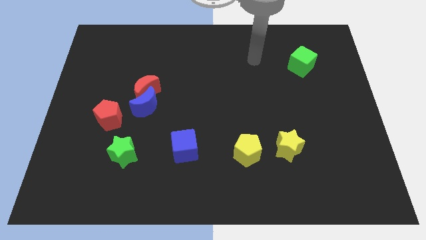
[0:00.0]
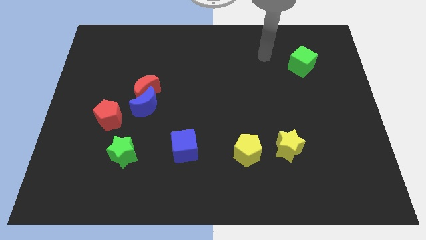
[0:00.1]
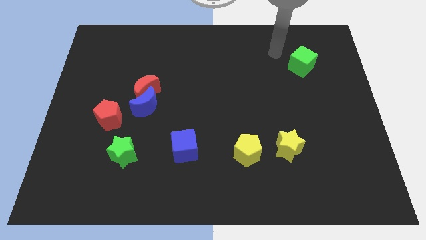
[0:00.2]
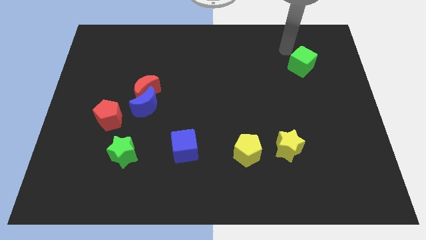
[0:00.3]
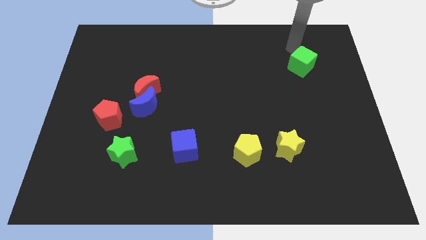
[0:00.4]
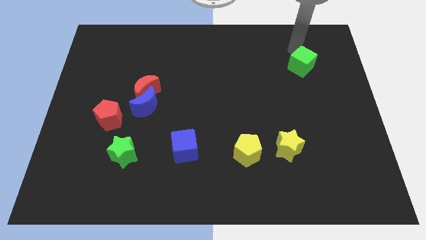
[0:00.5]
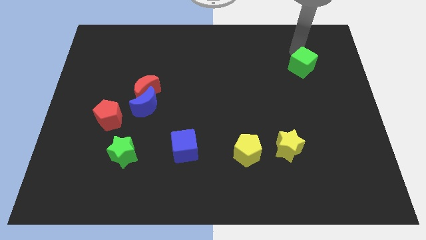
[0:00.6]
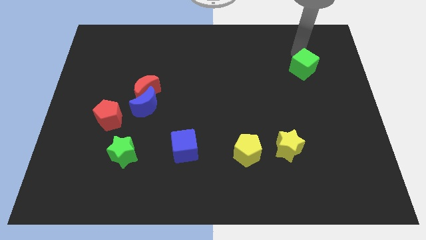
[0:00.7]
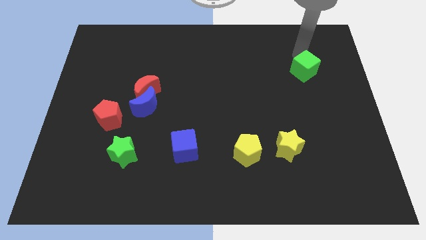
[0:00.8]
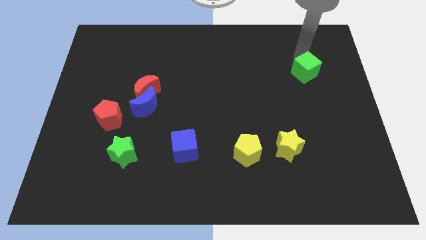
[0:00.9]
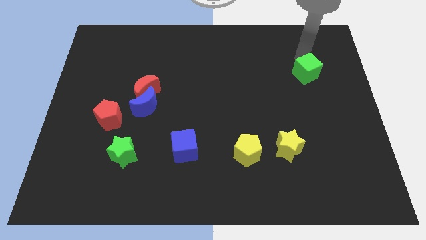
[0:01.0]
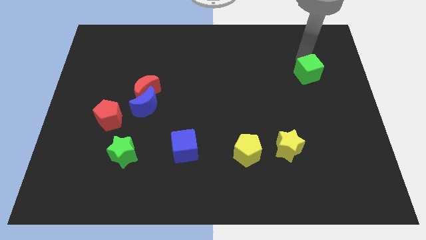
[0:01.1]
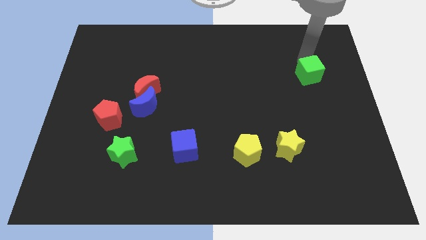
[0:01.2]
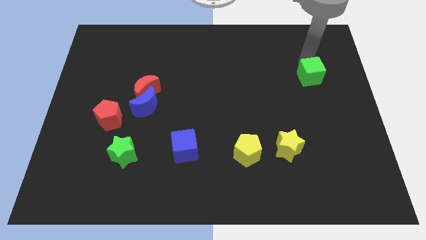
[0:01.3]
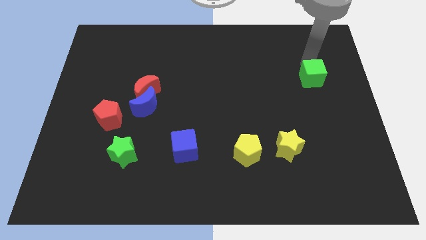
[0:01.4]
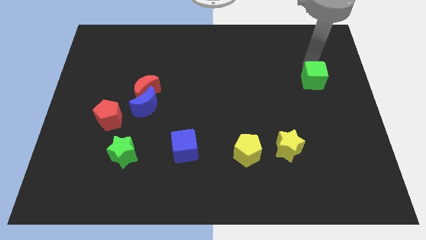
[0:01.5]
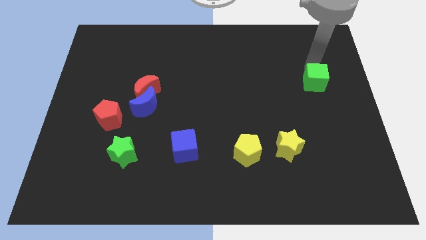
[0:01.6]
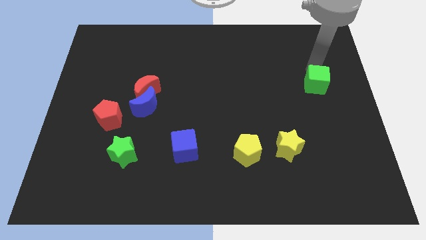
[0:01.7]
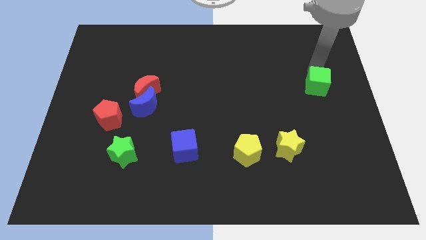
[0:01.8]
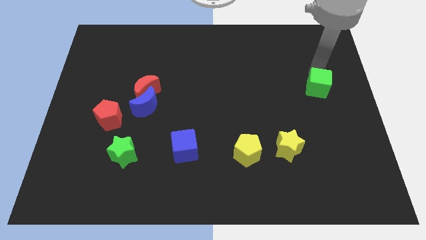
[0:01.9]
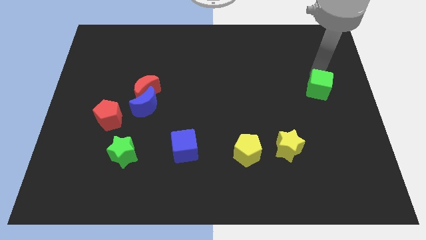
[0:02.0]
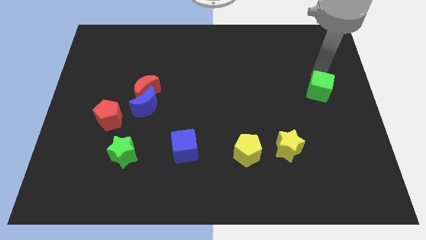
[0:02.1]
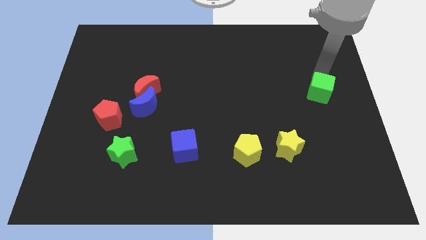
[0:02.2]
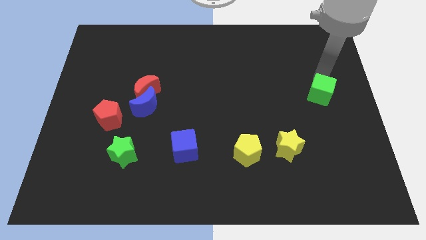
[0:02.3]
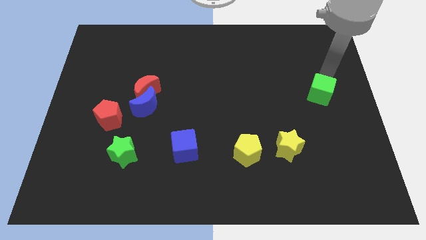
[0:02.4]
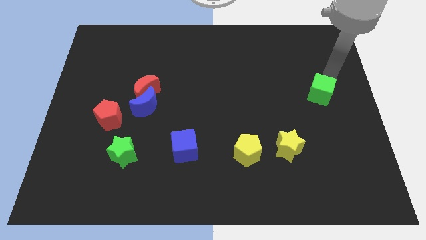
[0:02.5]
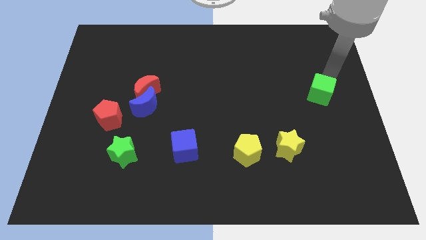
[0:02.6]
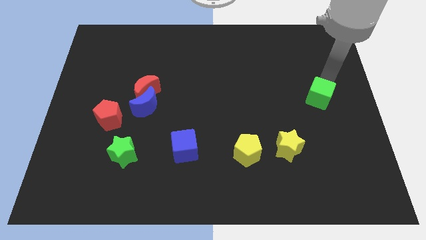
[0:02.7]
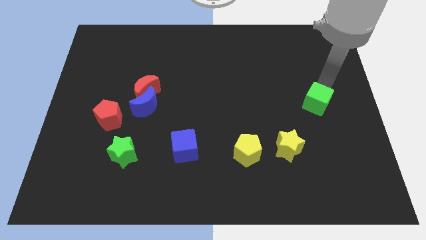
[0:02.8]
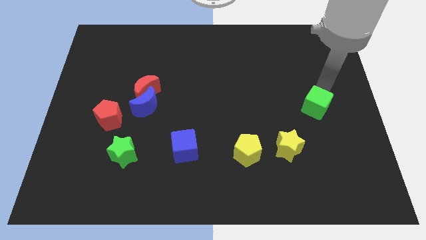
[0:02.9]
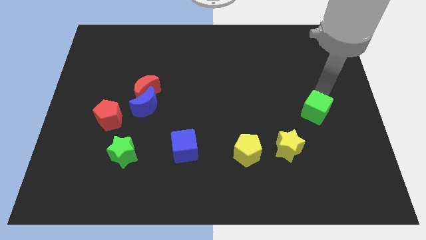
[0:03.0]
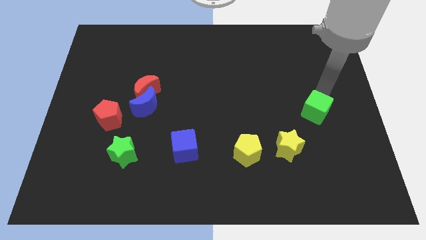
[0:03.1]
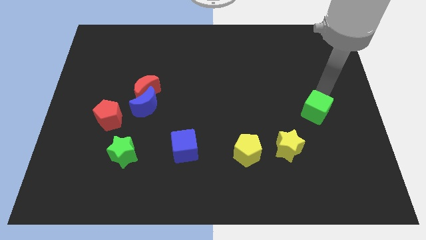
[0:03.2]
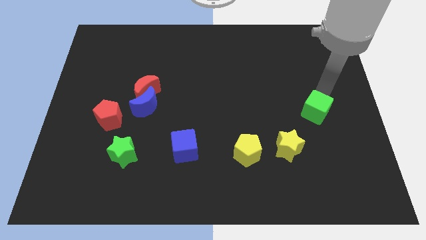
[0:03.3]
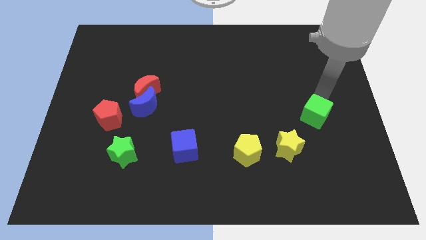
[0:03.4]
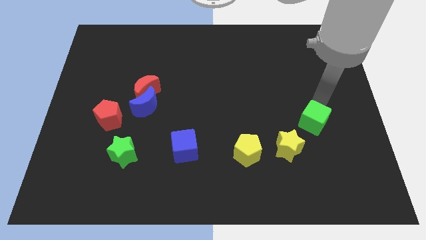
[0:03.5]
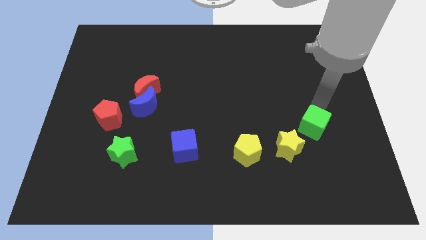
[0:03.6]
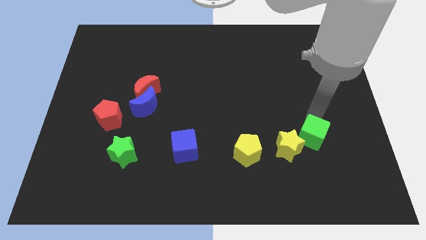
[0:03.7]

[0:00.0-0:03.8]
push the green cube downwards

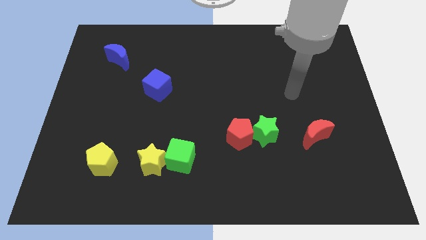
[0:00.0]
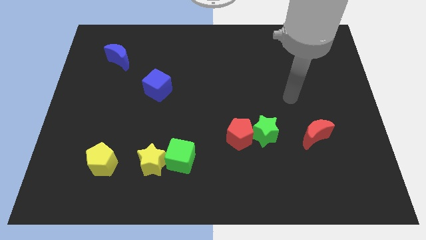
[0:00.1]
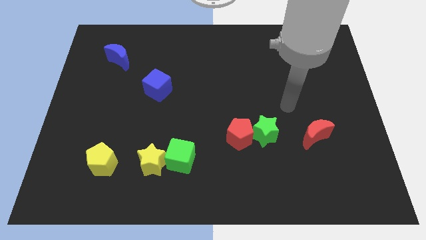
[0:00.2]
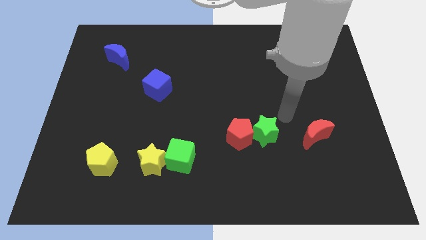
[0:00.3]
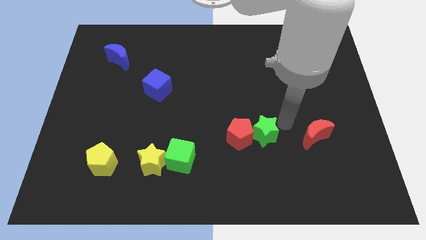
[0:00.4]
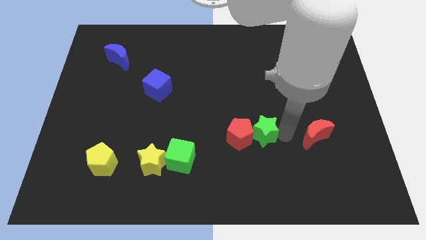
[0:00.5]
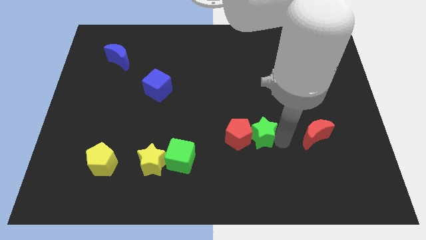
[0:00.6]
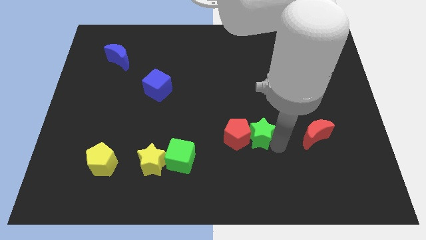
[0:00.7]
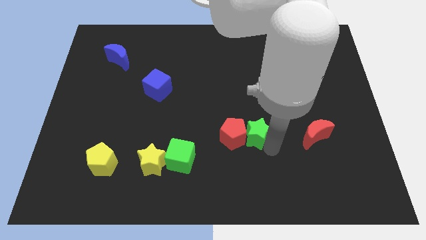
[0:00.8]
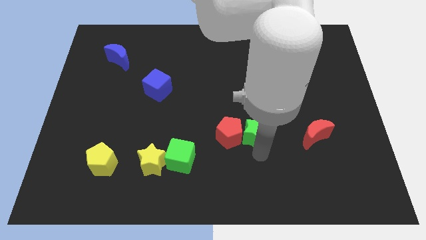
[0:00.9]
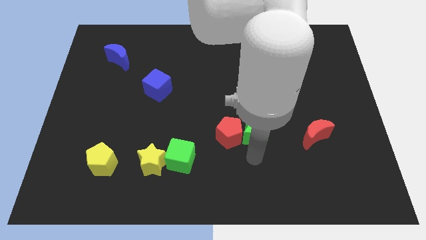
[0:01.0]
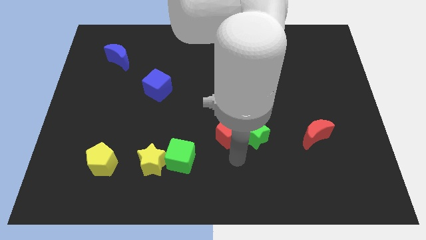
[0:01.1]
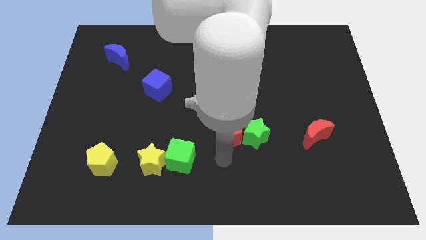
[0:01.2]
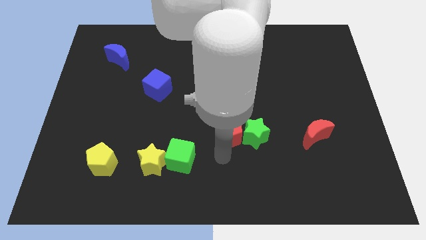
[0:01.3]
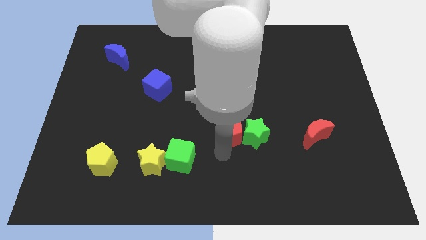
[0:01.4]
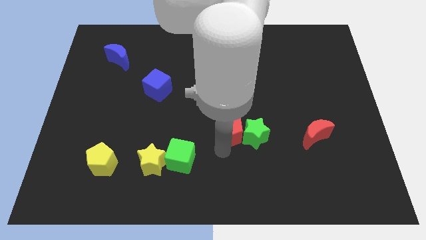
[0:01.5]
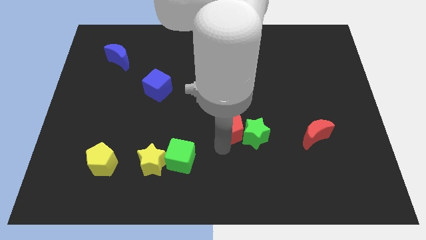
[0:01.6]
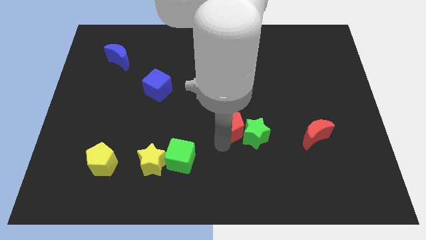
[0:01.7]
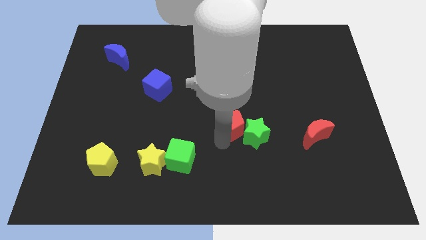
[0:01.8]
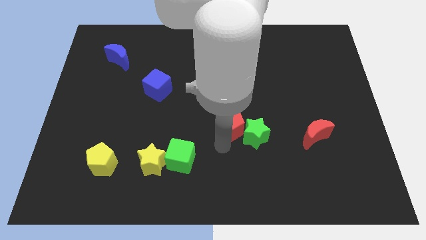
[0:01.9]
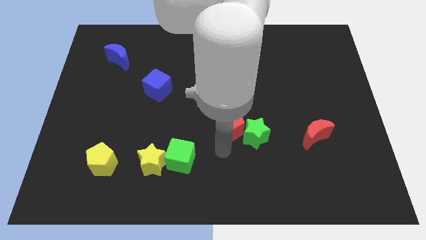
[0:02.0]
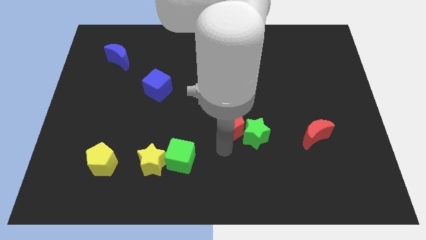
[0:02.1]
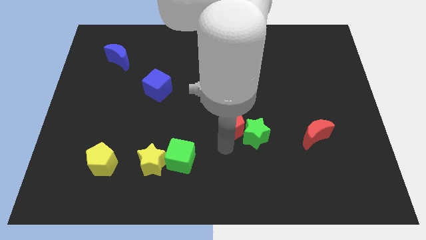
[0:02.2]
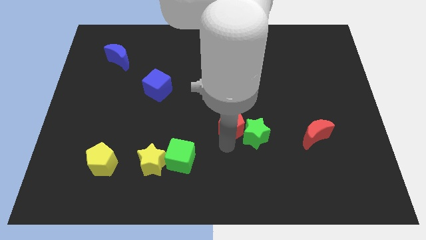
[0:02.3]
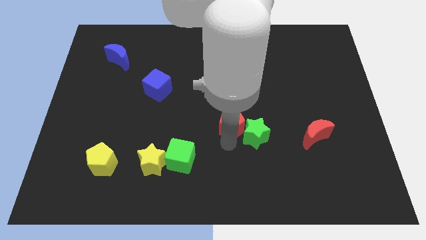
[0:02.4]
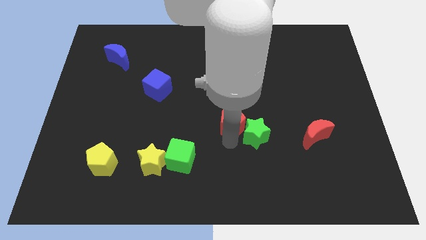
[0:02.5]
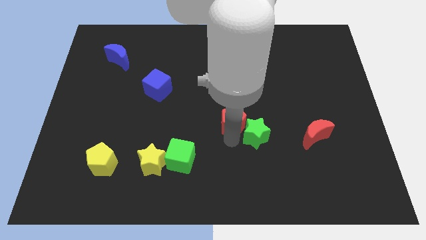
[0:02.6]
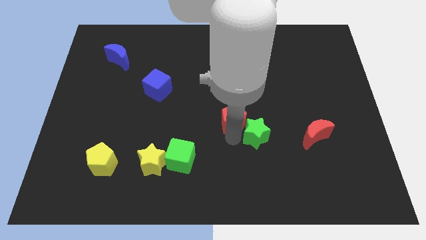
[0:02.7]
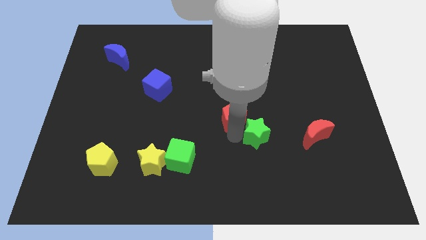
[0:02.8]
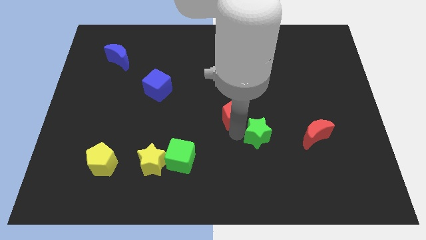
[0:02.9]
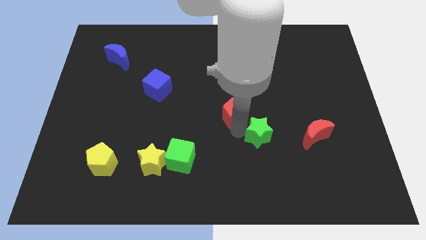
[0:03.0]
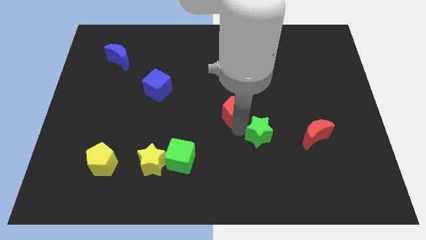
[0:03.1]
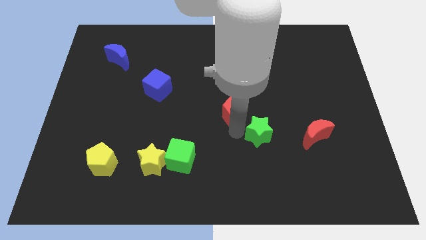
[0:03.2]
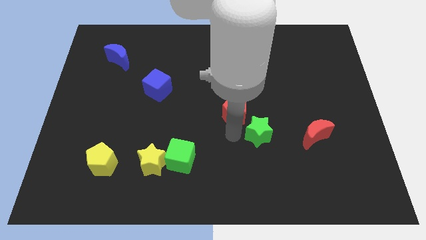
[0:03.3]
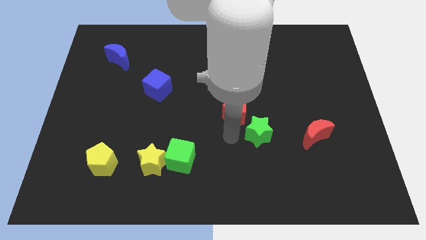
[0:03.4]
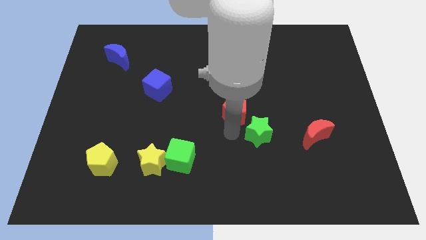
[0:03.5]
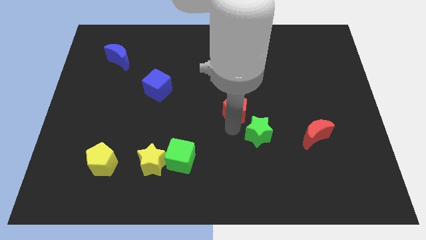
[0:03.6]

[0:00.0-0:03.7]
slightly slide the red pentagon up

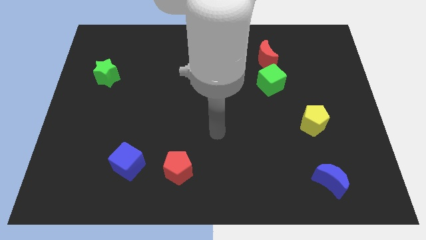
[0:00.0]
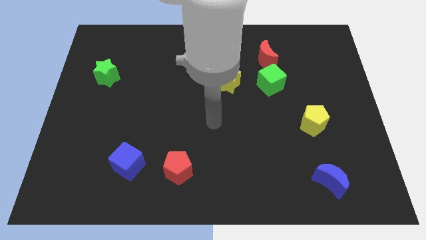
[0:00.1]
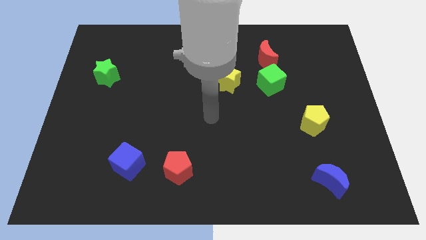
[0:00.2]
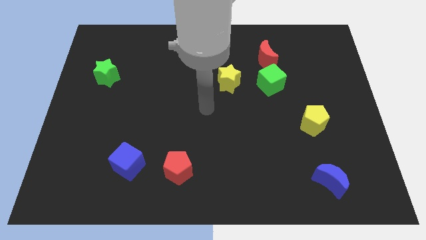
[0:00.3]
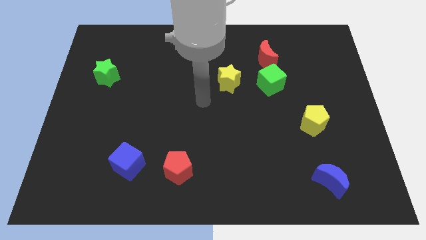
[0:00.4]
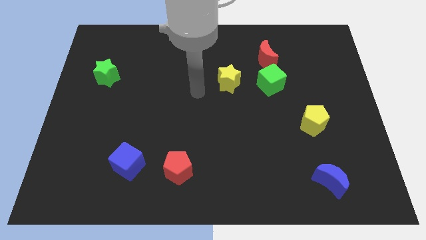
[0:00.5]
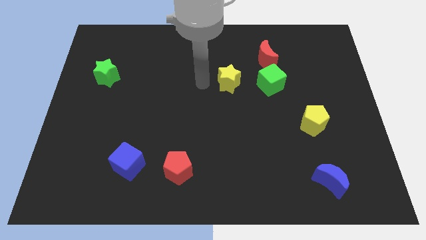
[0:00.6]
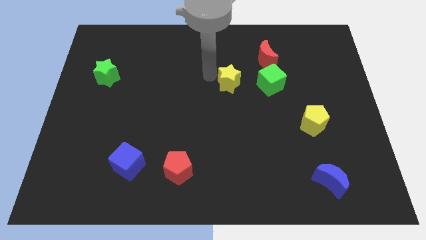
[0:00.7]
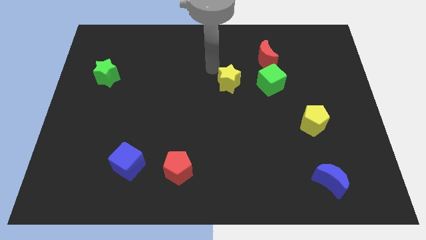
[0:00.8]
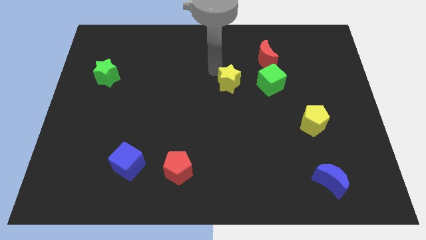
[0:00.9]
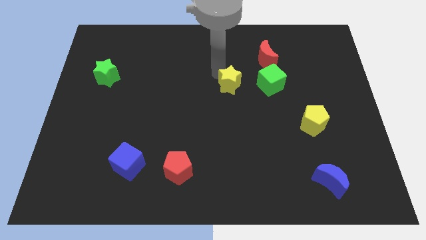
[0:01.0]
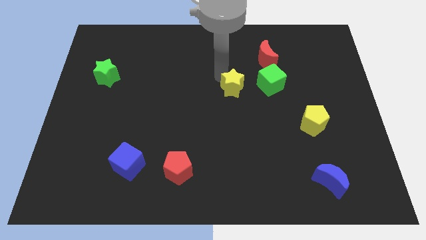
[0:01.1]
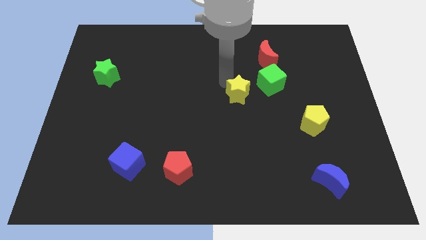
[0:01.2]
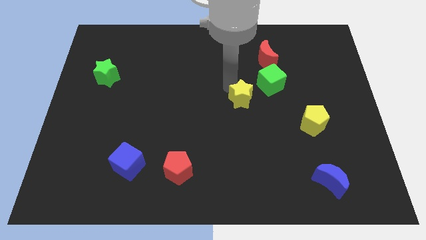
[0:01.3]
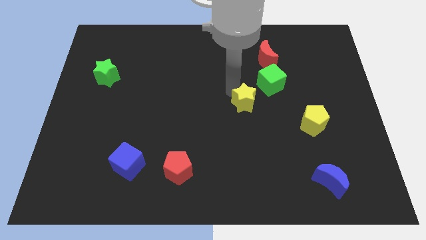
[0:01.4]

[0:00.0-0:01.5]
slide the yellow star diagonally down and to the right a bit
